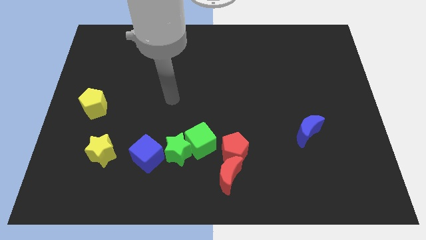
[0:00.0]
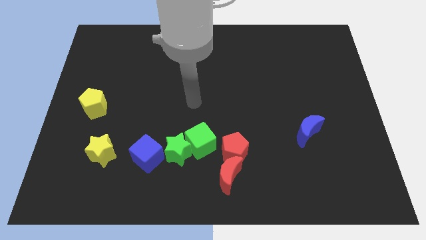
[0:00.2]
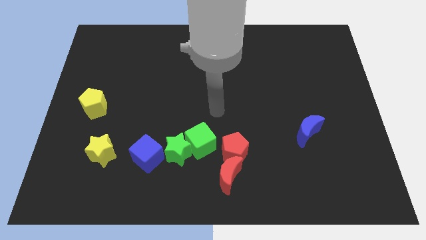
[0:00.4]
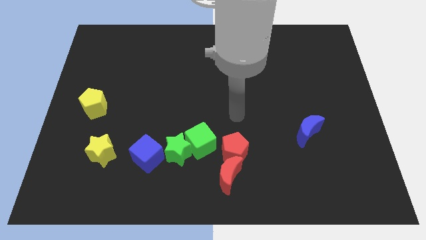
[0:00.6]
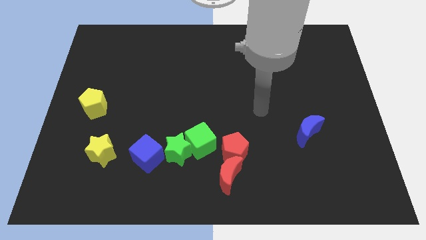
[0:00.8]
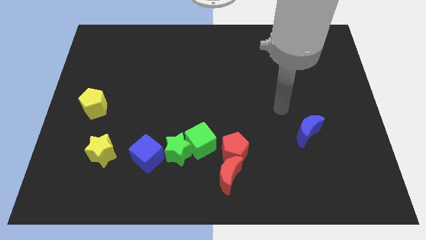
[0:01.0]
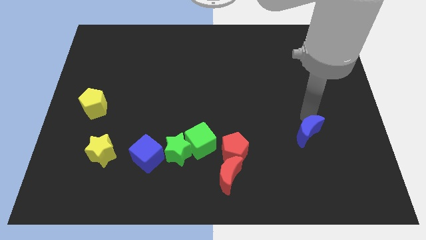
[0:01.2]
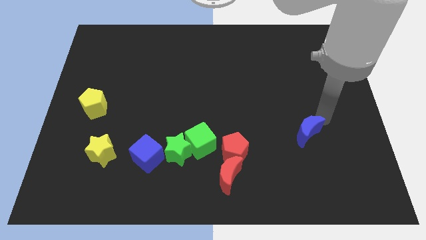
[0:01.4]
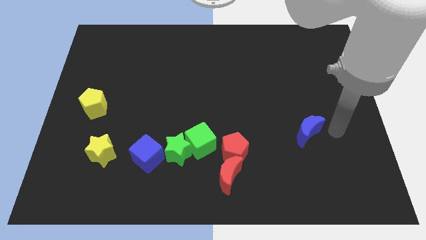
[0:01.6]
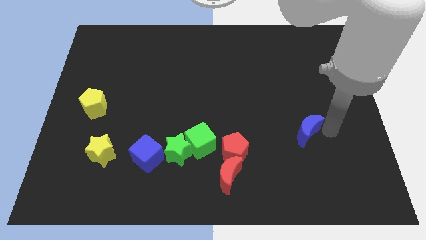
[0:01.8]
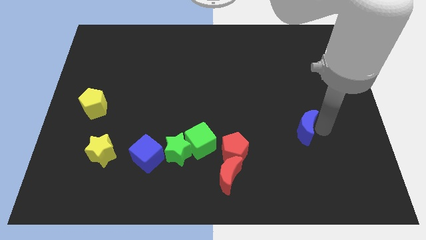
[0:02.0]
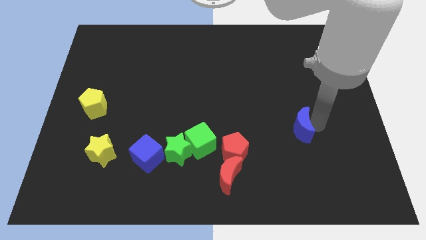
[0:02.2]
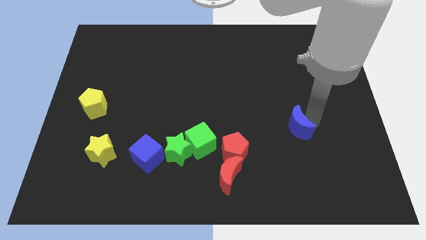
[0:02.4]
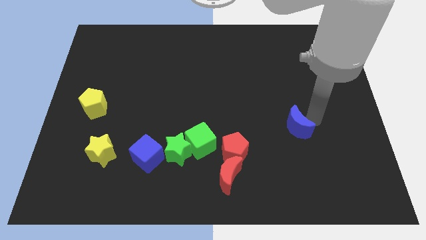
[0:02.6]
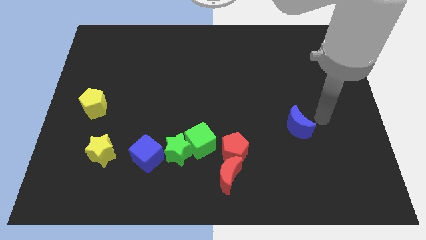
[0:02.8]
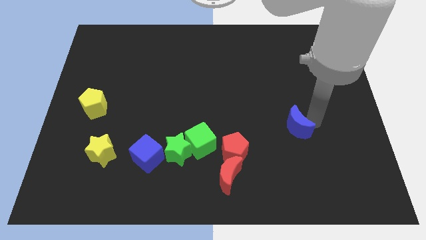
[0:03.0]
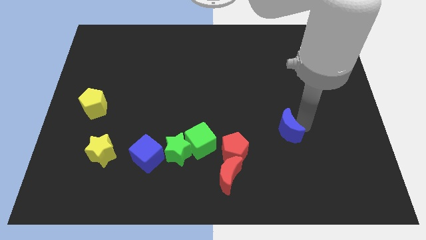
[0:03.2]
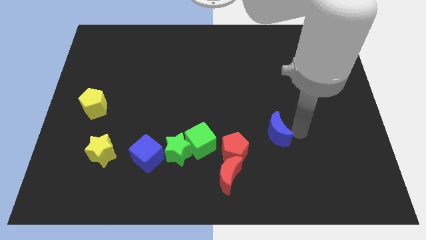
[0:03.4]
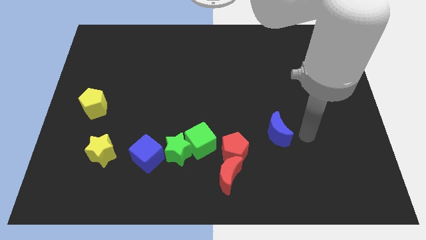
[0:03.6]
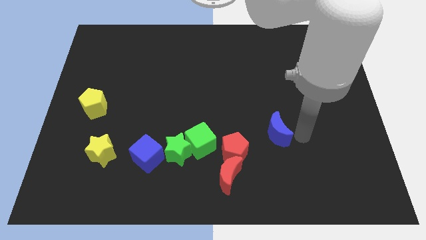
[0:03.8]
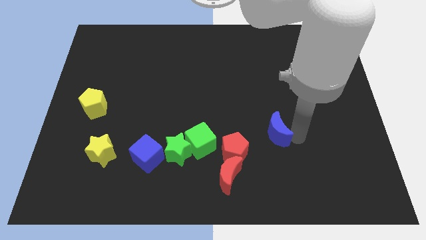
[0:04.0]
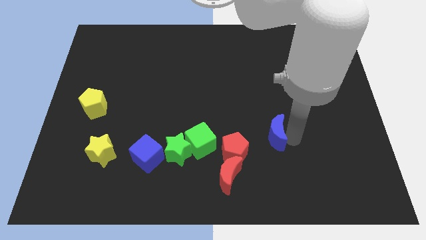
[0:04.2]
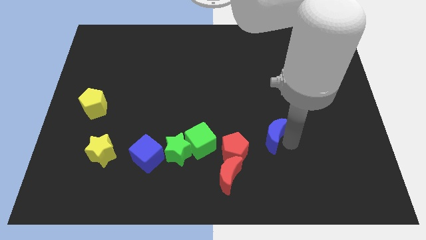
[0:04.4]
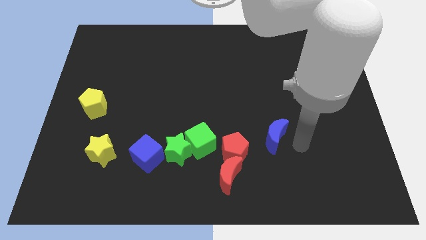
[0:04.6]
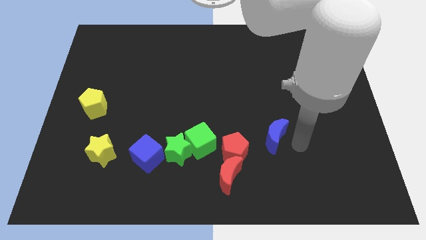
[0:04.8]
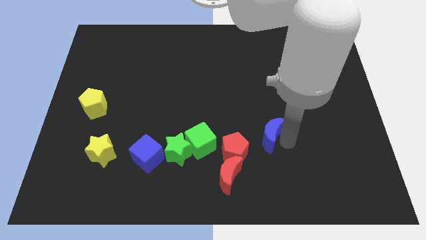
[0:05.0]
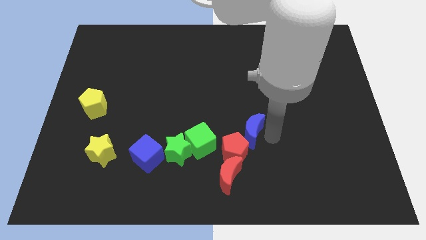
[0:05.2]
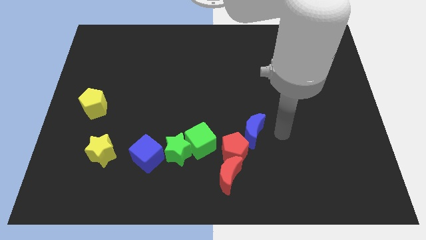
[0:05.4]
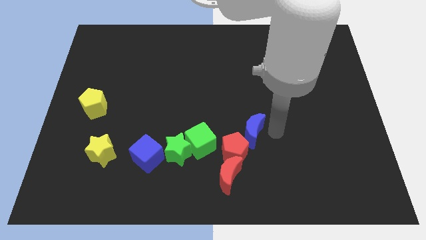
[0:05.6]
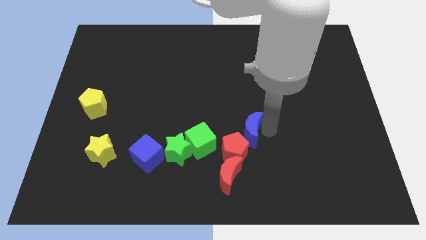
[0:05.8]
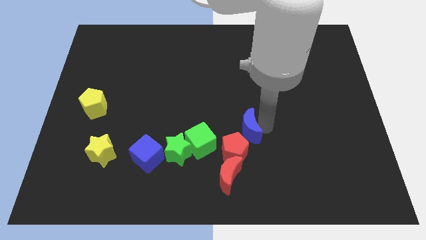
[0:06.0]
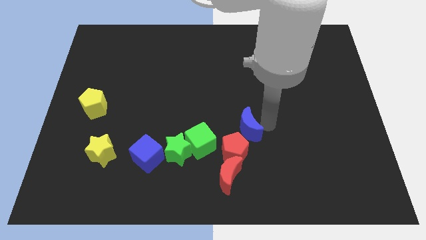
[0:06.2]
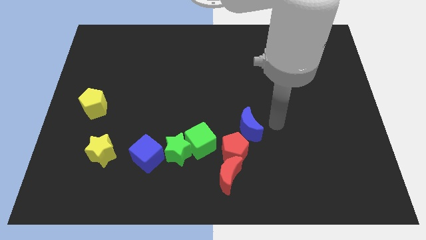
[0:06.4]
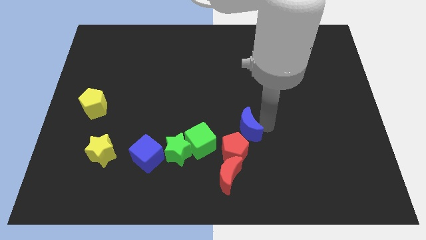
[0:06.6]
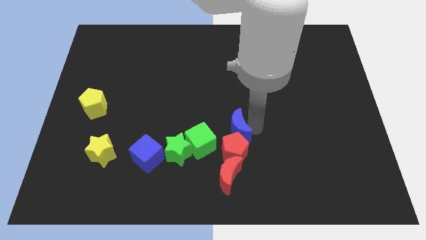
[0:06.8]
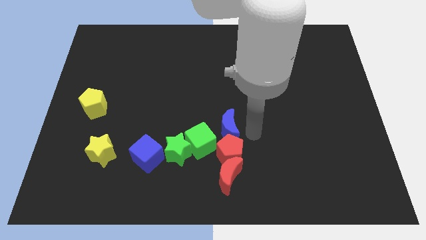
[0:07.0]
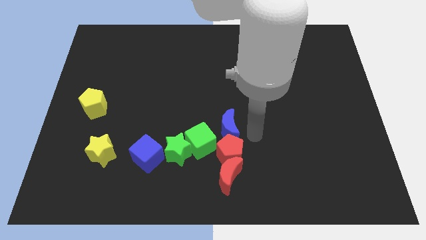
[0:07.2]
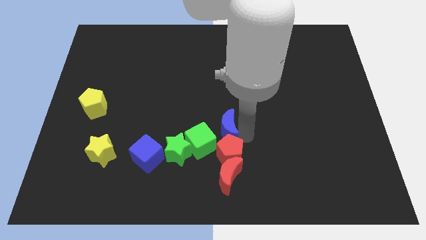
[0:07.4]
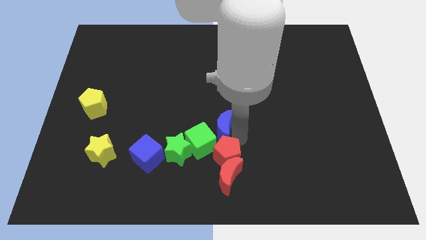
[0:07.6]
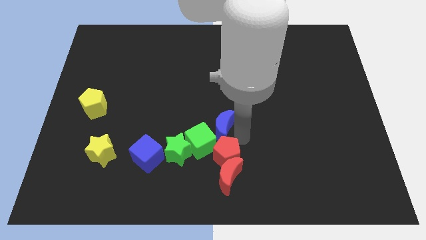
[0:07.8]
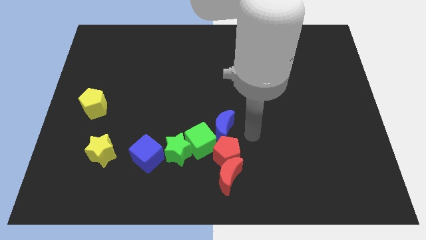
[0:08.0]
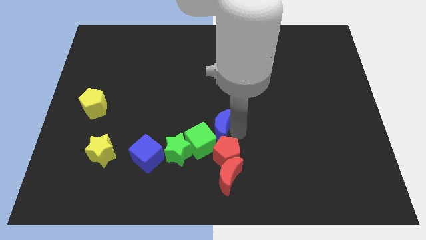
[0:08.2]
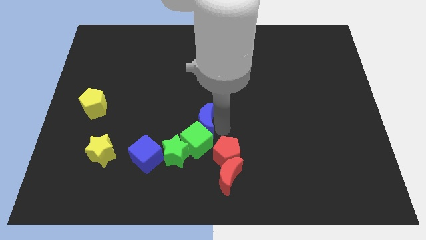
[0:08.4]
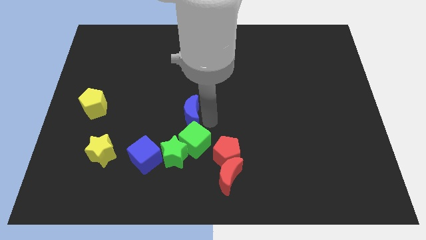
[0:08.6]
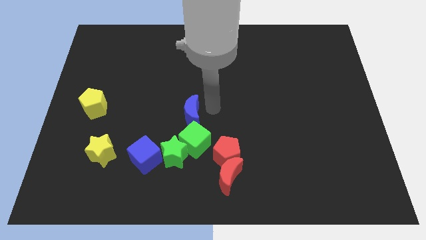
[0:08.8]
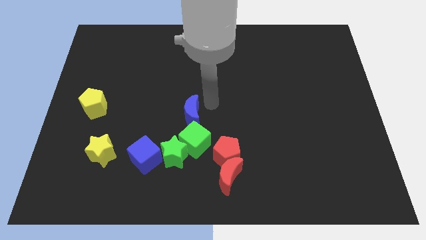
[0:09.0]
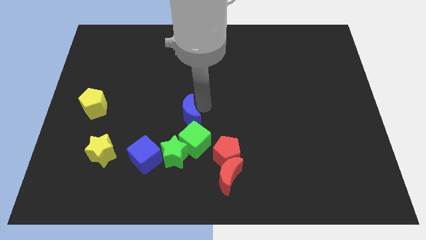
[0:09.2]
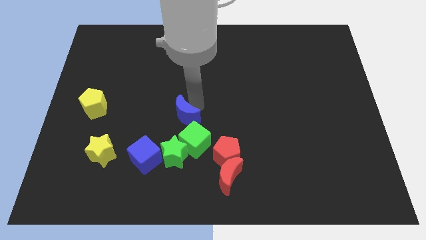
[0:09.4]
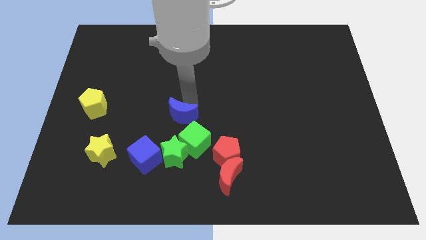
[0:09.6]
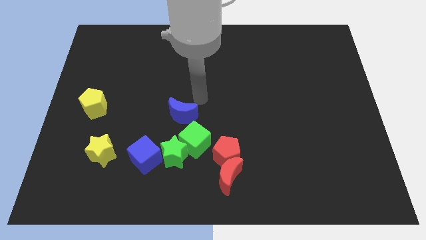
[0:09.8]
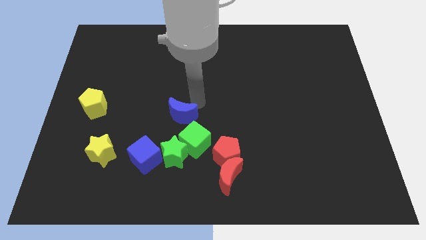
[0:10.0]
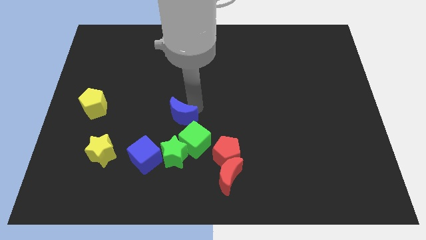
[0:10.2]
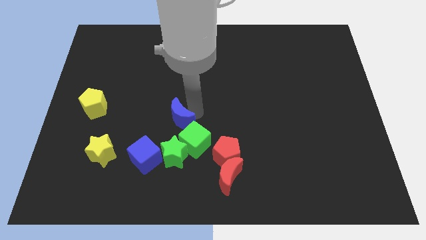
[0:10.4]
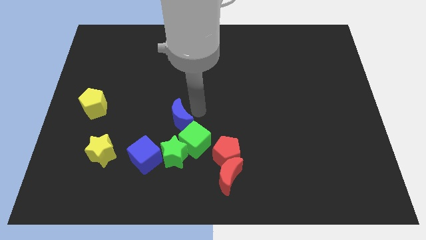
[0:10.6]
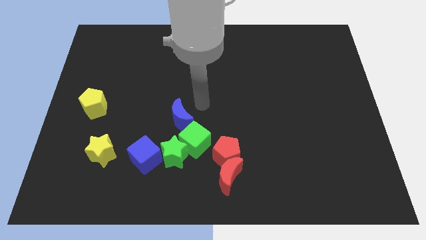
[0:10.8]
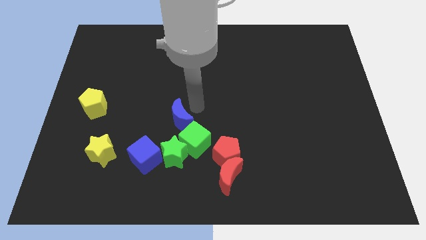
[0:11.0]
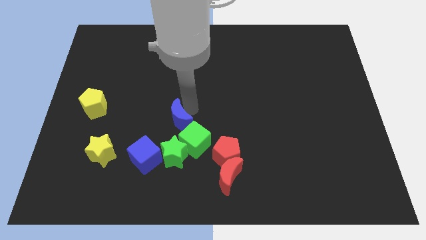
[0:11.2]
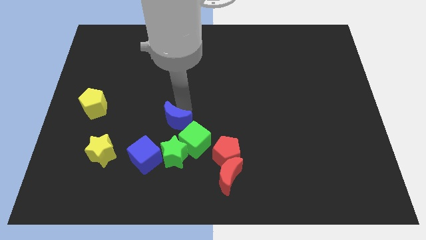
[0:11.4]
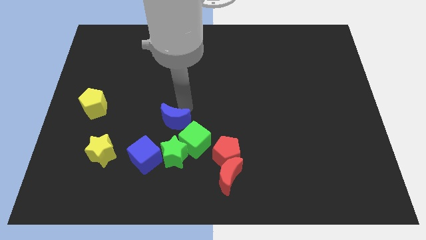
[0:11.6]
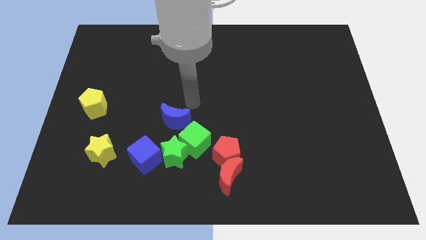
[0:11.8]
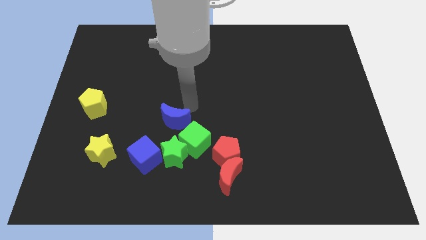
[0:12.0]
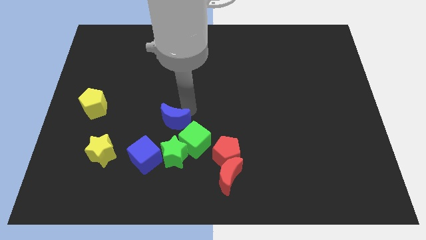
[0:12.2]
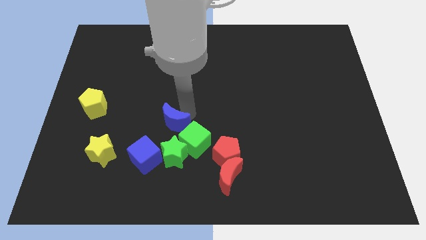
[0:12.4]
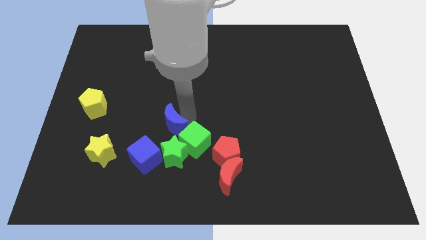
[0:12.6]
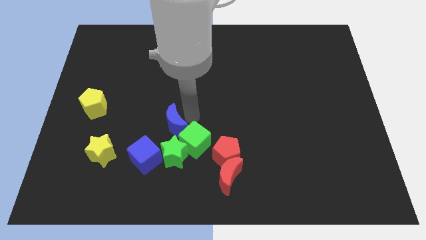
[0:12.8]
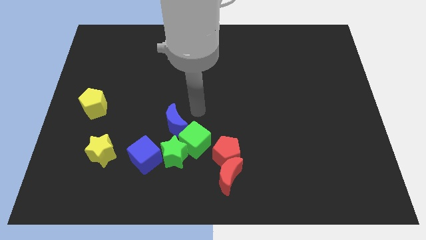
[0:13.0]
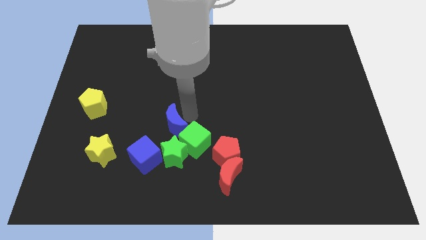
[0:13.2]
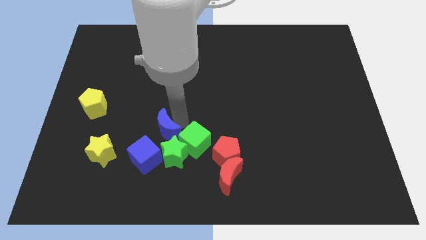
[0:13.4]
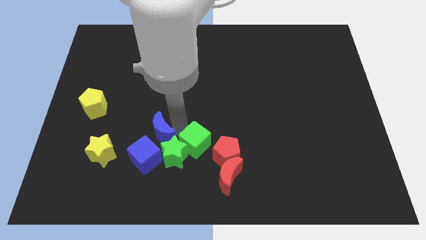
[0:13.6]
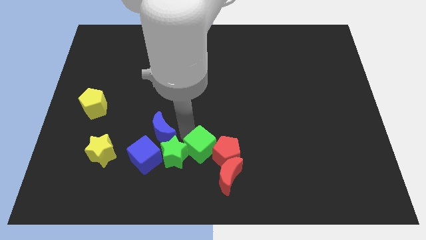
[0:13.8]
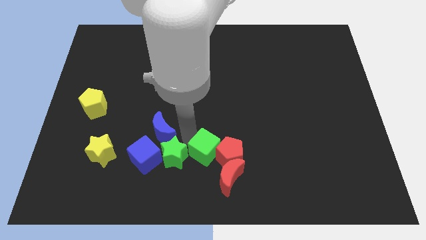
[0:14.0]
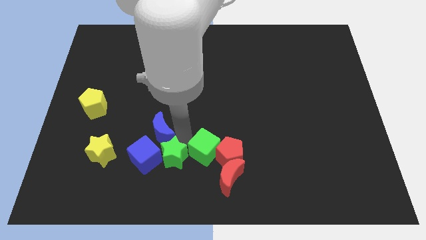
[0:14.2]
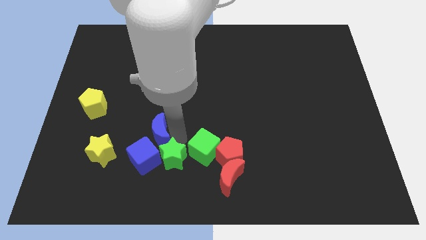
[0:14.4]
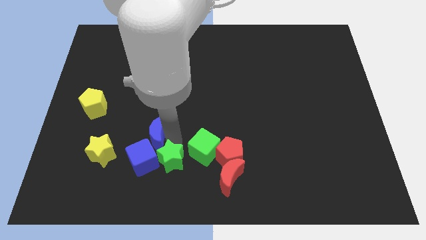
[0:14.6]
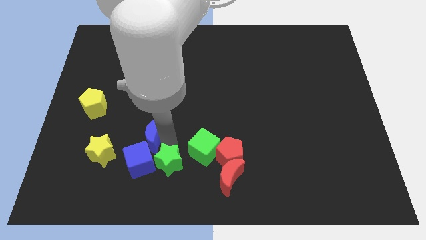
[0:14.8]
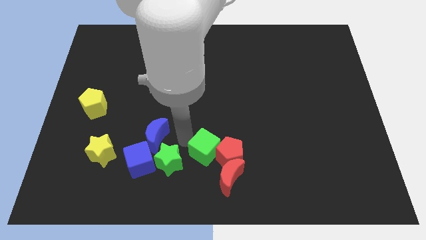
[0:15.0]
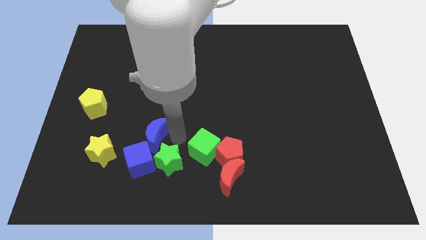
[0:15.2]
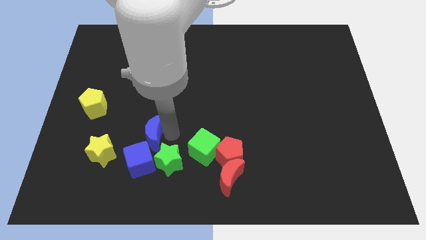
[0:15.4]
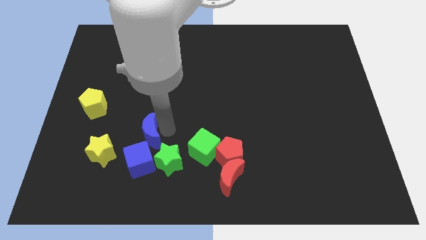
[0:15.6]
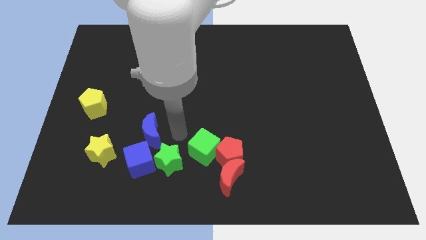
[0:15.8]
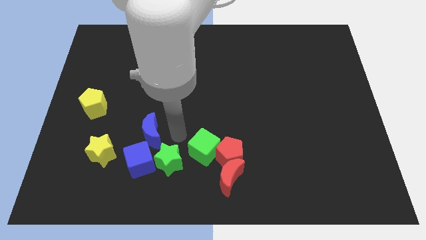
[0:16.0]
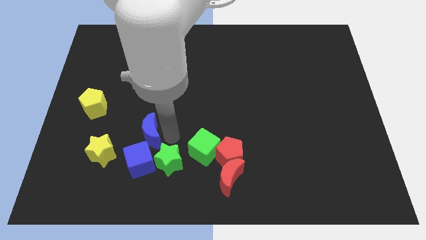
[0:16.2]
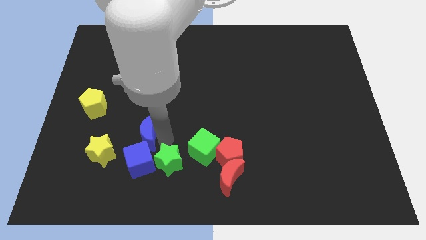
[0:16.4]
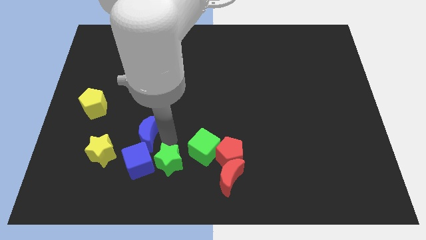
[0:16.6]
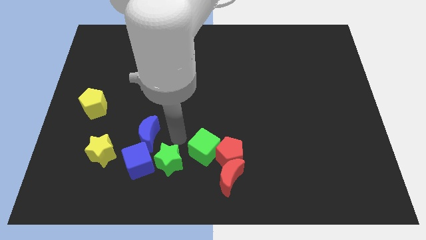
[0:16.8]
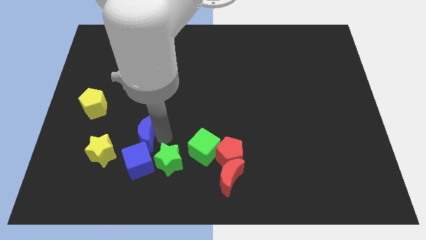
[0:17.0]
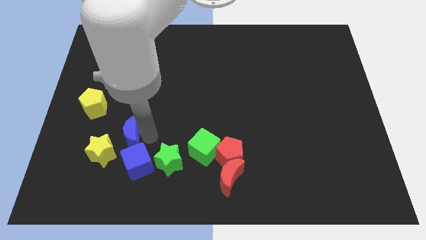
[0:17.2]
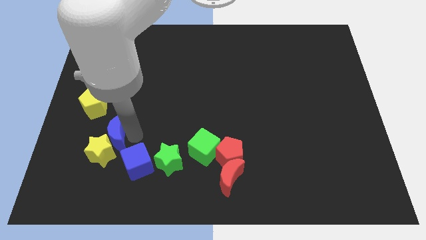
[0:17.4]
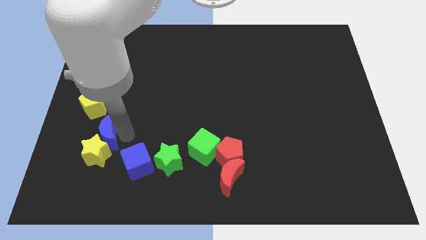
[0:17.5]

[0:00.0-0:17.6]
slide the blue moon below the yellow pentagon
